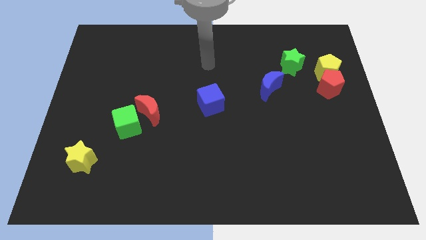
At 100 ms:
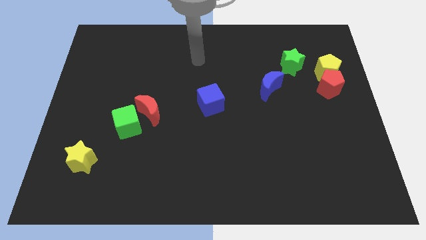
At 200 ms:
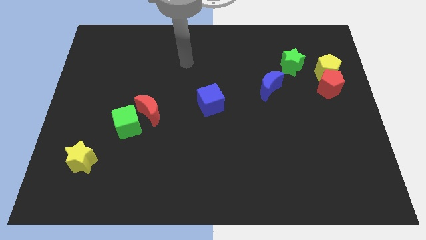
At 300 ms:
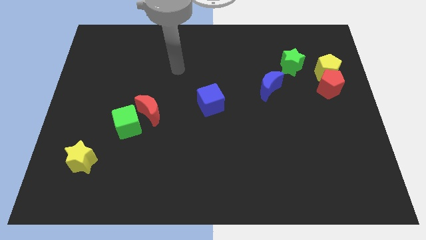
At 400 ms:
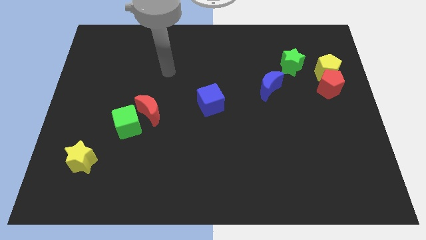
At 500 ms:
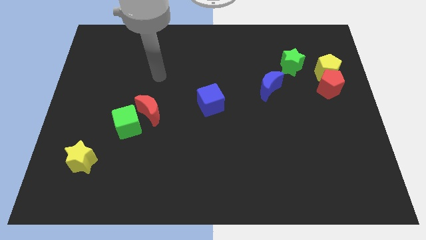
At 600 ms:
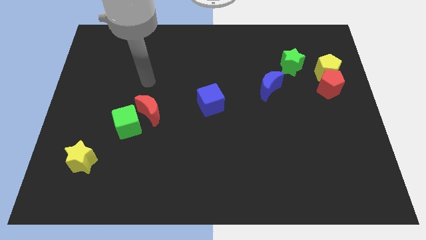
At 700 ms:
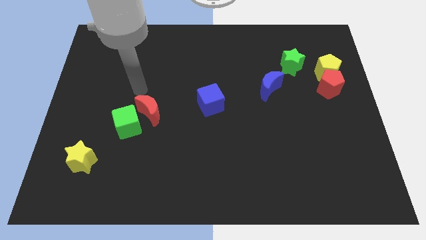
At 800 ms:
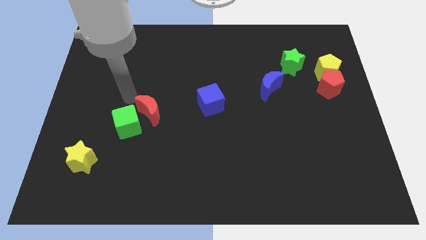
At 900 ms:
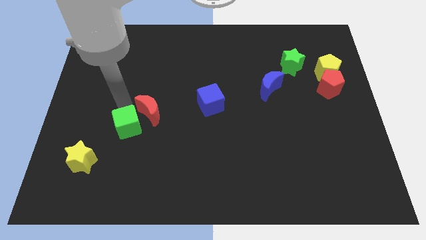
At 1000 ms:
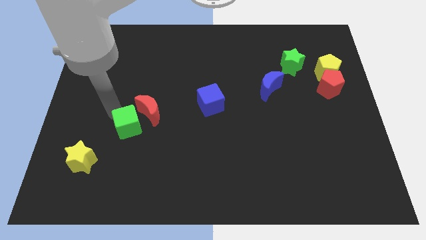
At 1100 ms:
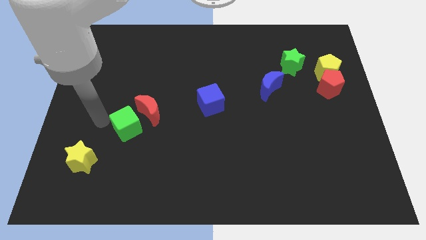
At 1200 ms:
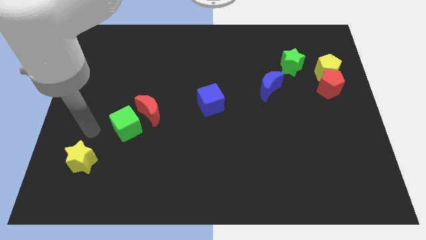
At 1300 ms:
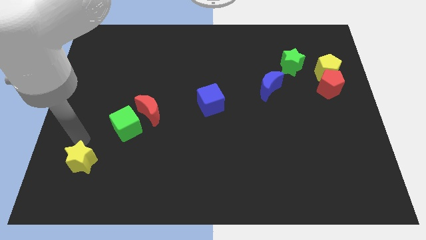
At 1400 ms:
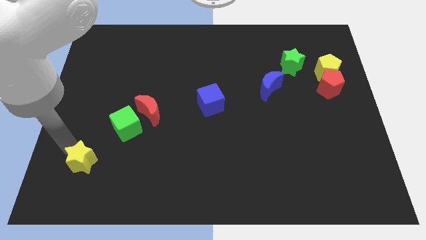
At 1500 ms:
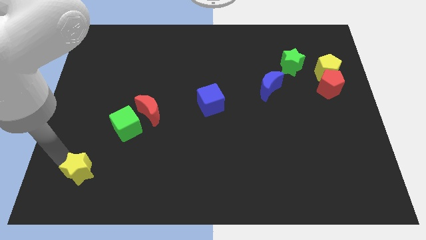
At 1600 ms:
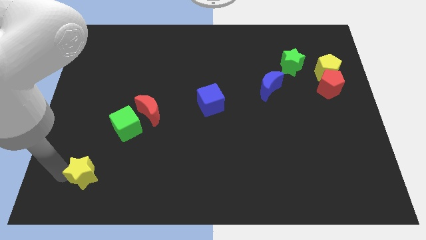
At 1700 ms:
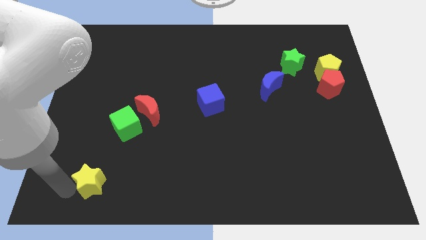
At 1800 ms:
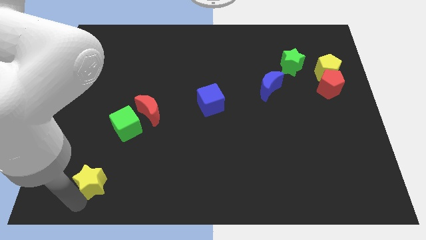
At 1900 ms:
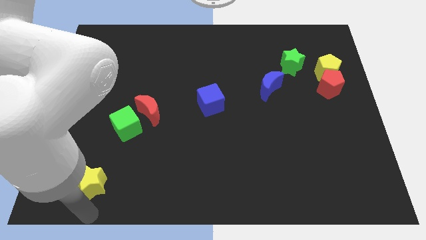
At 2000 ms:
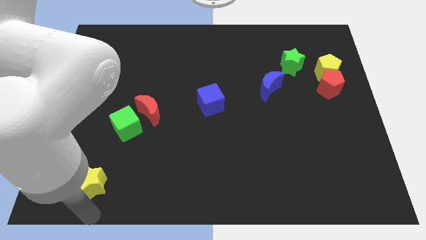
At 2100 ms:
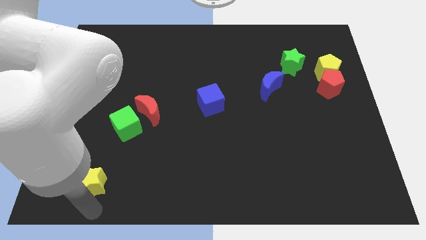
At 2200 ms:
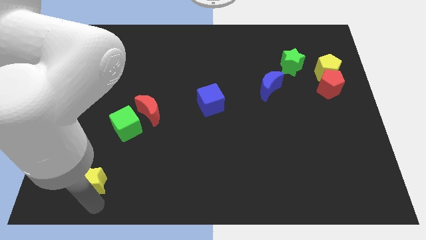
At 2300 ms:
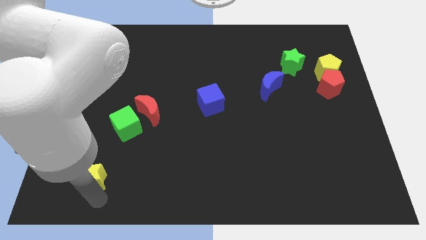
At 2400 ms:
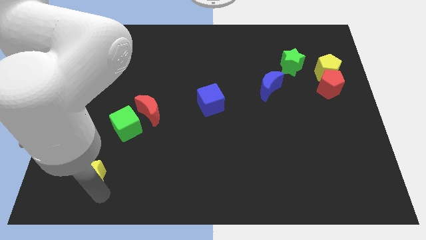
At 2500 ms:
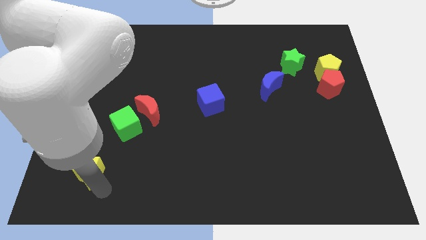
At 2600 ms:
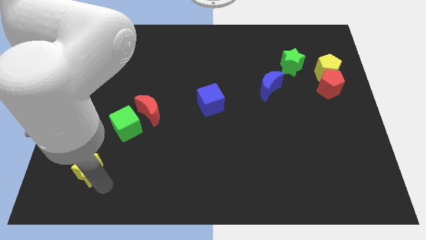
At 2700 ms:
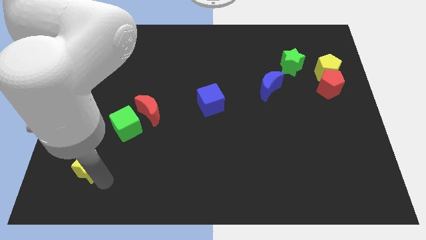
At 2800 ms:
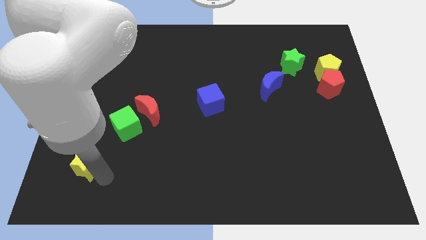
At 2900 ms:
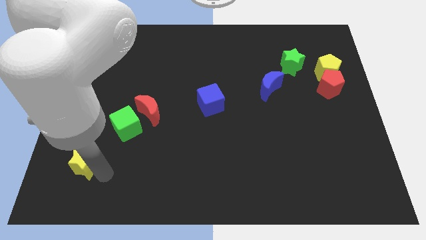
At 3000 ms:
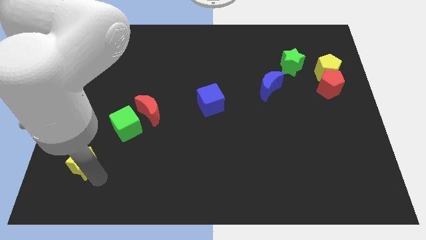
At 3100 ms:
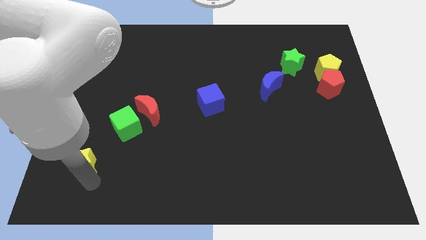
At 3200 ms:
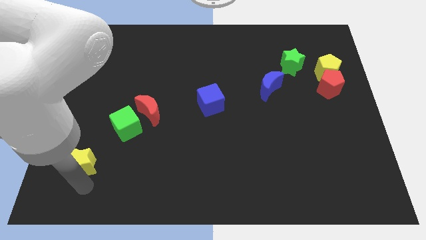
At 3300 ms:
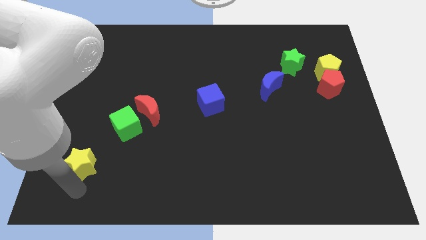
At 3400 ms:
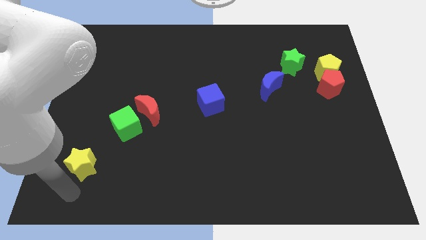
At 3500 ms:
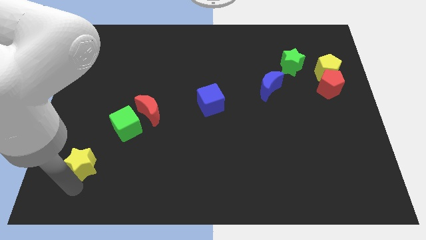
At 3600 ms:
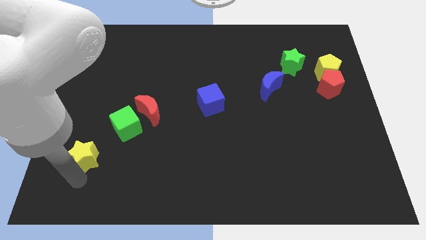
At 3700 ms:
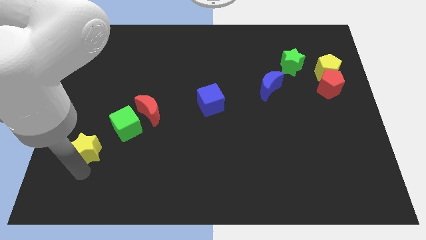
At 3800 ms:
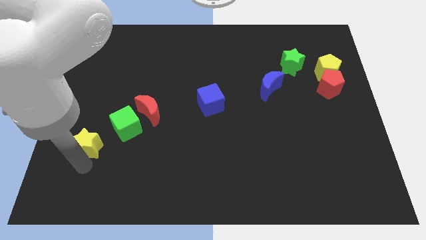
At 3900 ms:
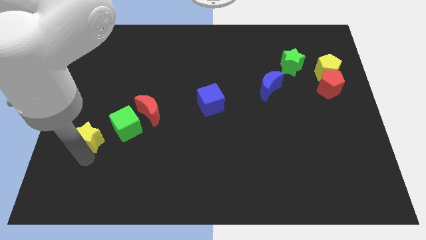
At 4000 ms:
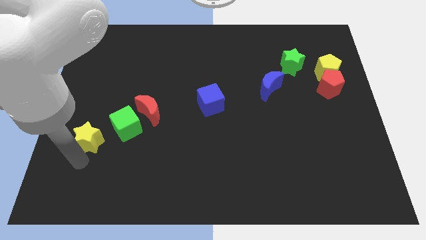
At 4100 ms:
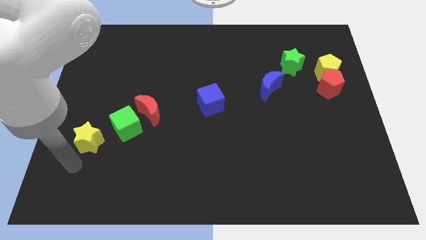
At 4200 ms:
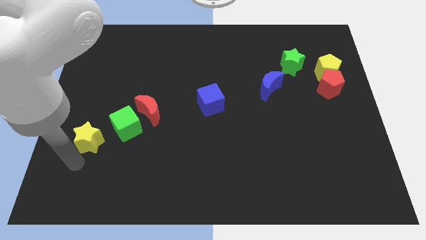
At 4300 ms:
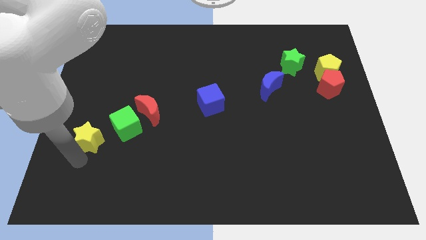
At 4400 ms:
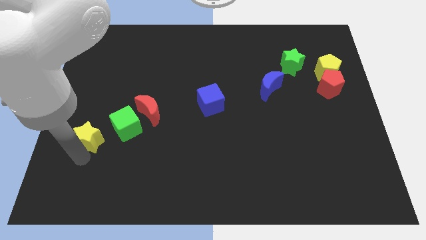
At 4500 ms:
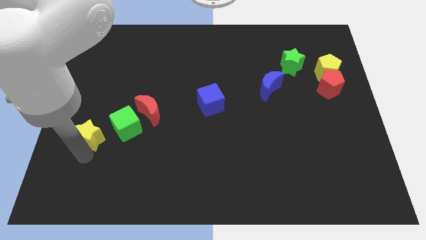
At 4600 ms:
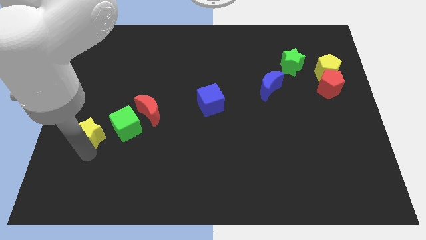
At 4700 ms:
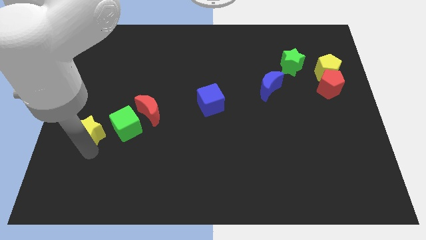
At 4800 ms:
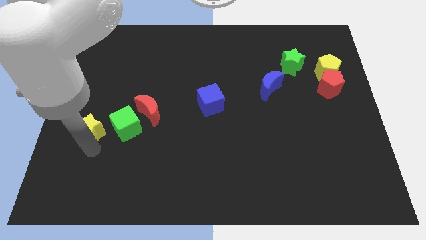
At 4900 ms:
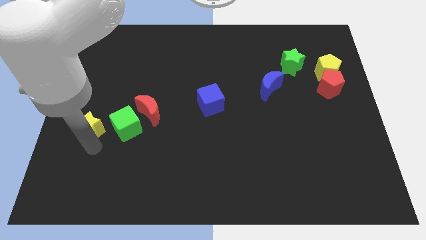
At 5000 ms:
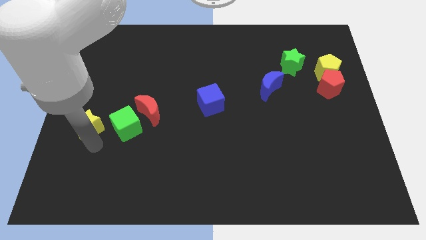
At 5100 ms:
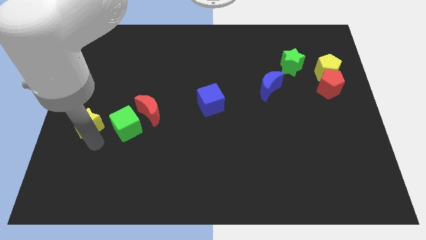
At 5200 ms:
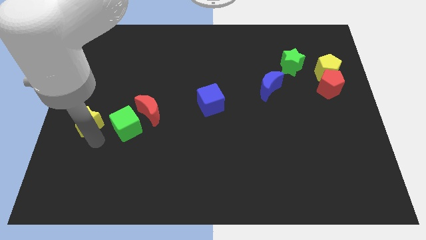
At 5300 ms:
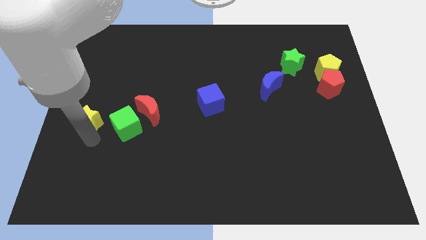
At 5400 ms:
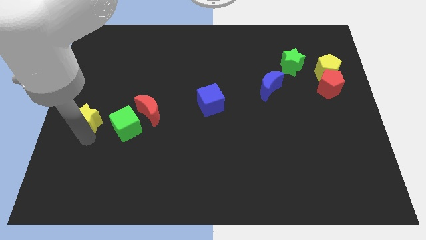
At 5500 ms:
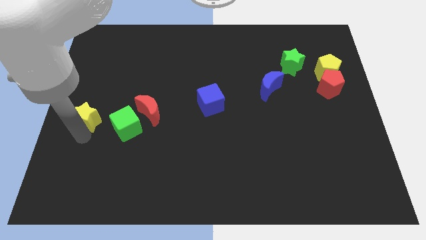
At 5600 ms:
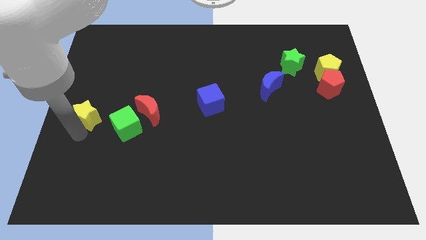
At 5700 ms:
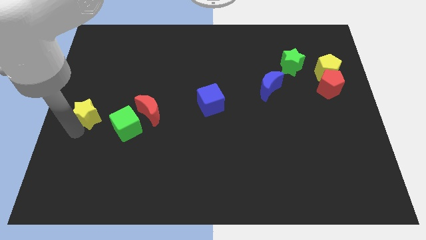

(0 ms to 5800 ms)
move the yellow star to the top left of the green cube

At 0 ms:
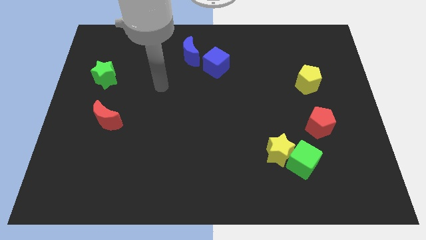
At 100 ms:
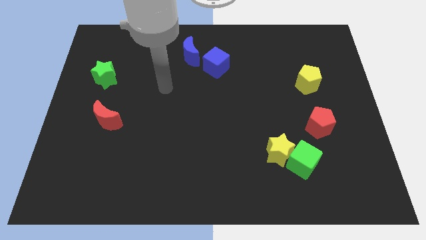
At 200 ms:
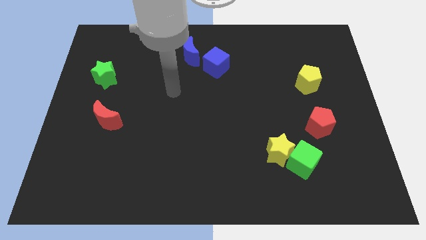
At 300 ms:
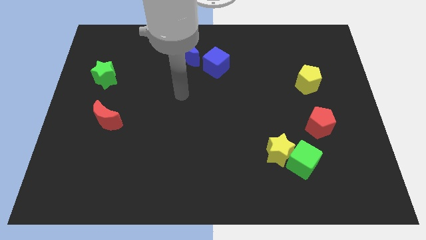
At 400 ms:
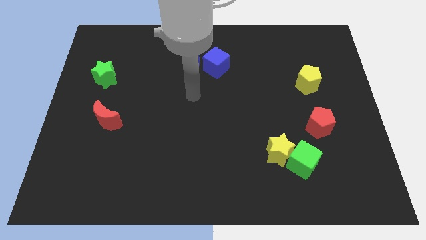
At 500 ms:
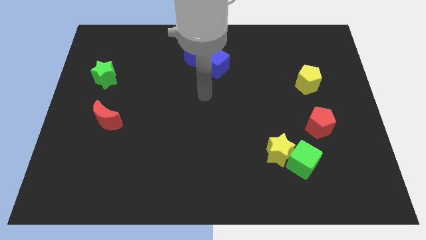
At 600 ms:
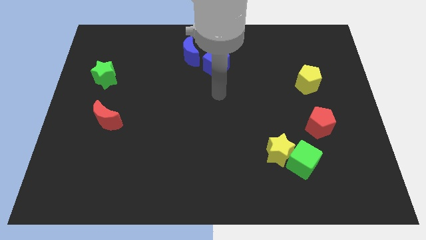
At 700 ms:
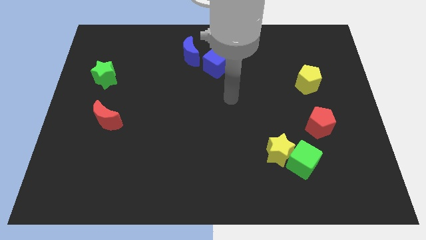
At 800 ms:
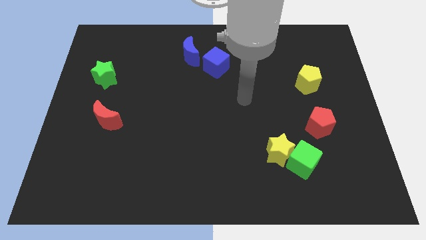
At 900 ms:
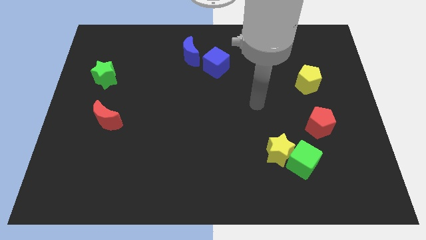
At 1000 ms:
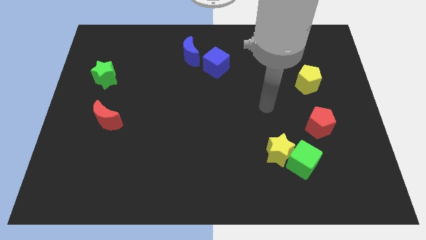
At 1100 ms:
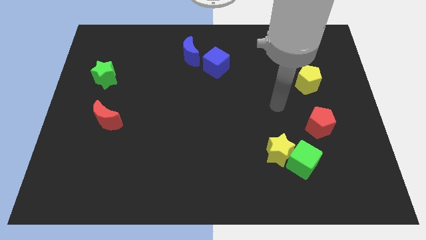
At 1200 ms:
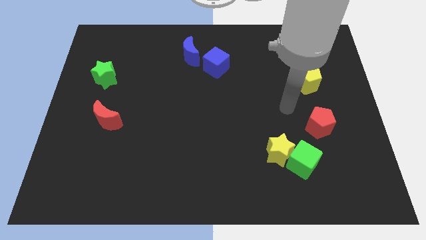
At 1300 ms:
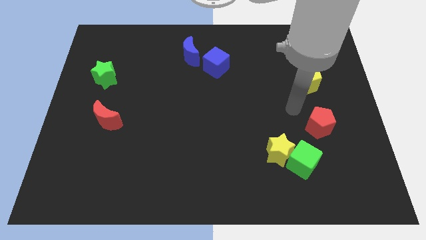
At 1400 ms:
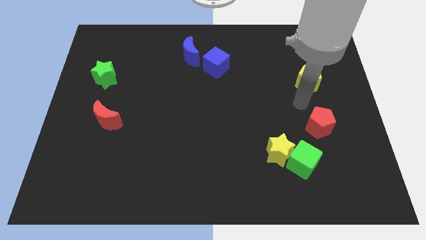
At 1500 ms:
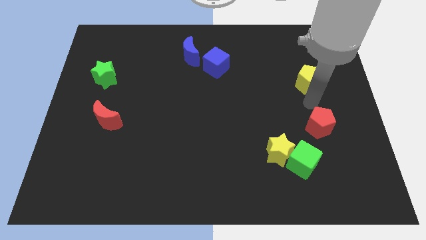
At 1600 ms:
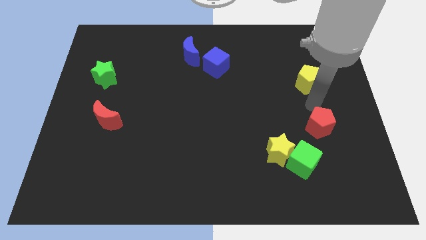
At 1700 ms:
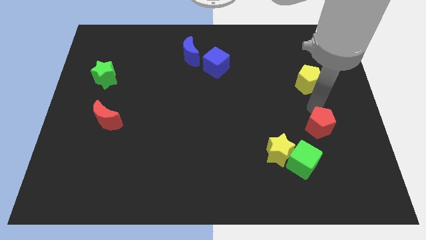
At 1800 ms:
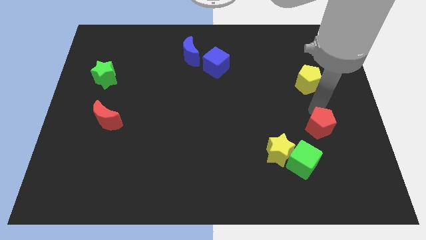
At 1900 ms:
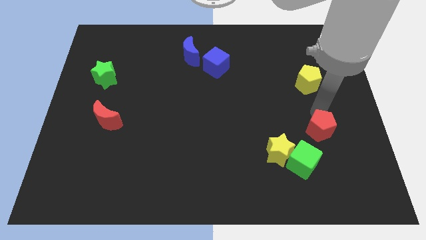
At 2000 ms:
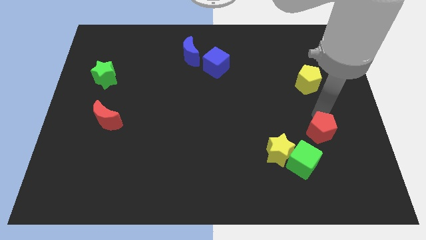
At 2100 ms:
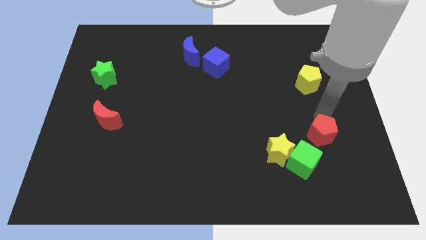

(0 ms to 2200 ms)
slide the red pentagon right of the yellow star
